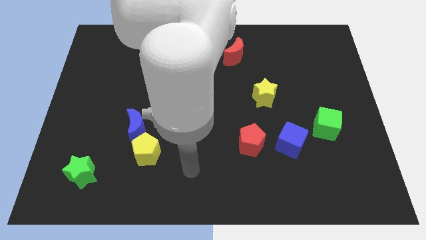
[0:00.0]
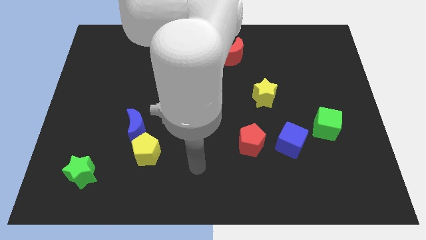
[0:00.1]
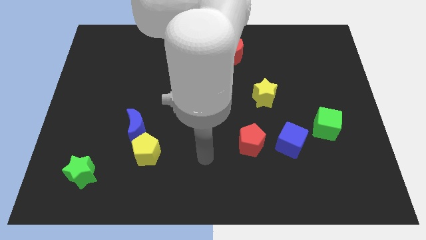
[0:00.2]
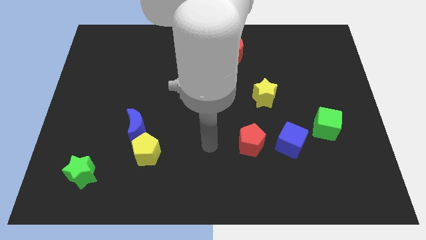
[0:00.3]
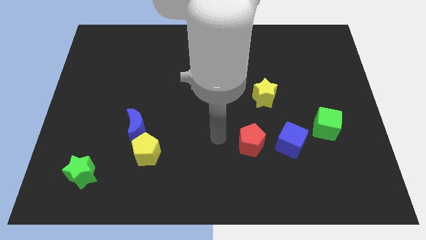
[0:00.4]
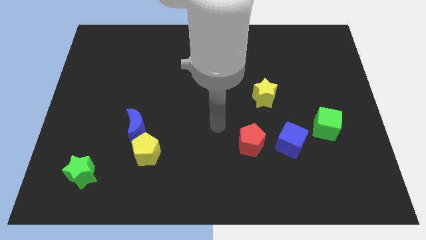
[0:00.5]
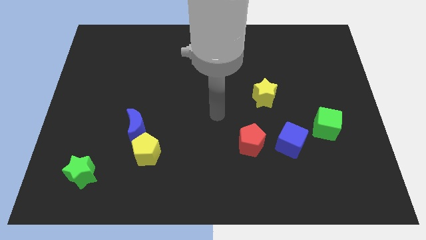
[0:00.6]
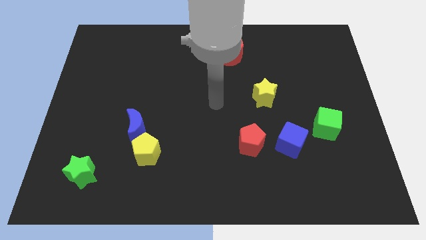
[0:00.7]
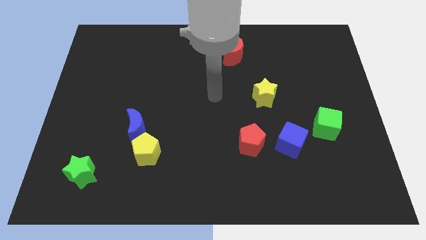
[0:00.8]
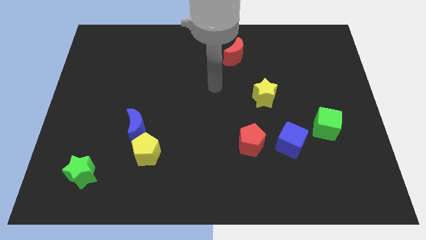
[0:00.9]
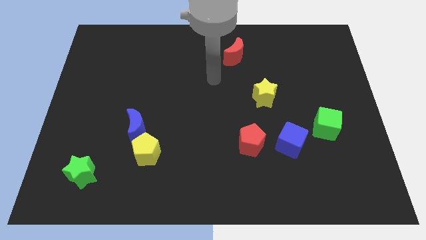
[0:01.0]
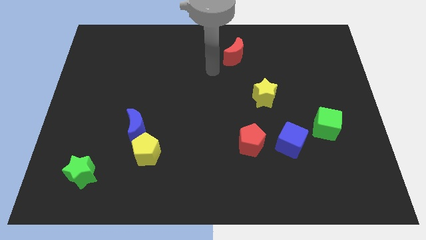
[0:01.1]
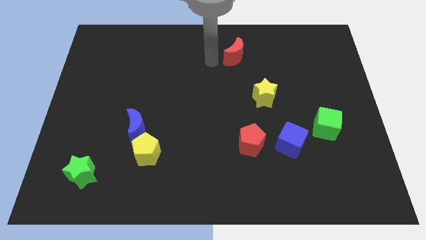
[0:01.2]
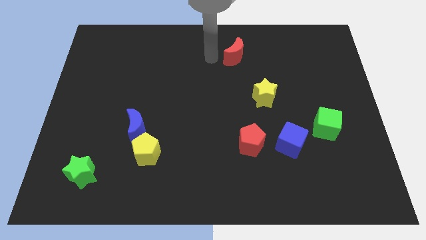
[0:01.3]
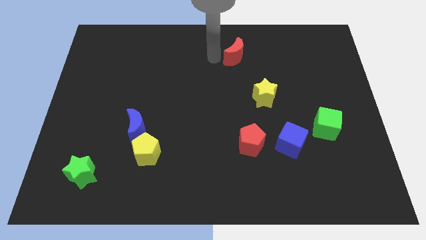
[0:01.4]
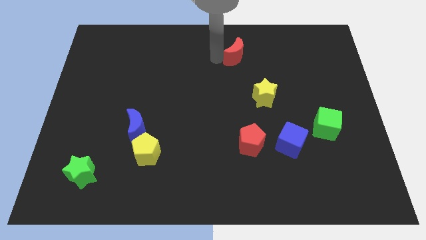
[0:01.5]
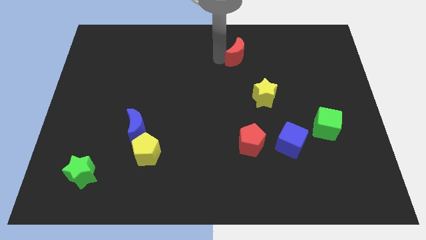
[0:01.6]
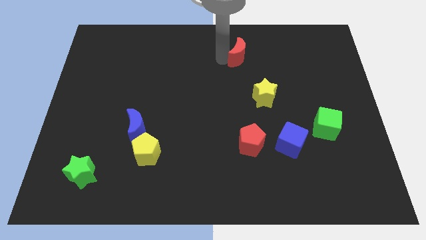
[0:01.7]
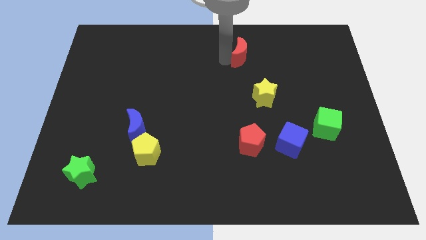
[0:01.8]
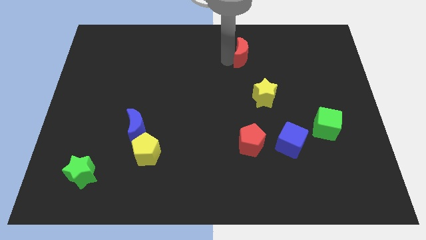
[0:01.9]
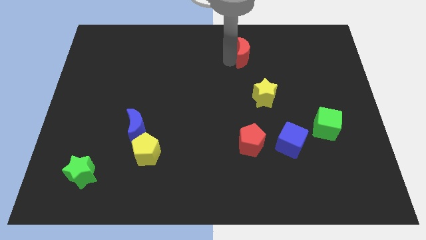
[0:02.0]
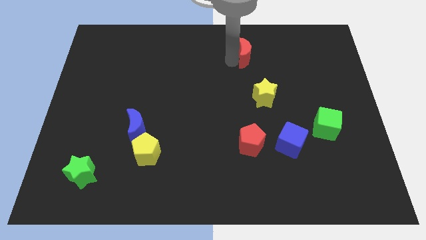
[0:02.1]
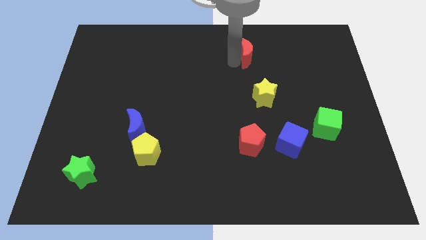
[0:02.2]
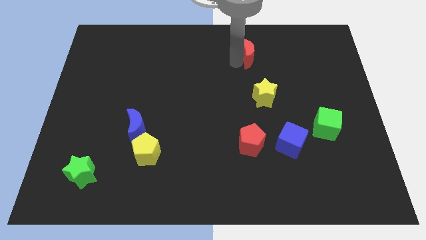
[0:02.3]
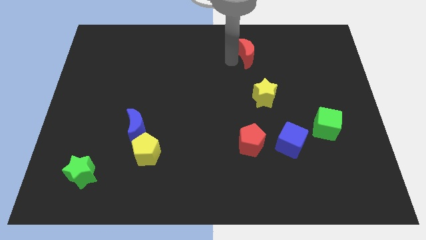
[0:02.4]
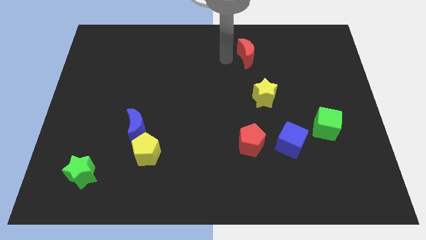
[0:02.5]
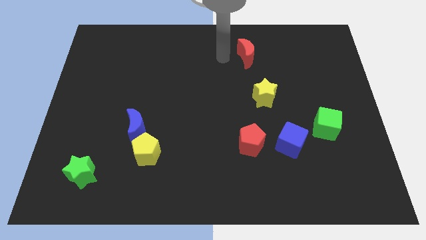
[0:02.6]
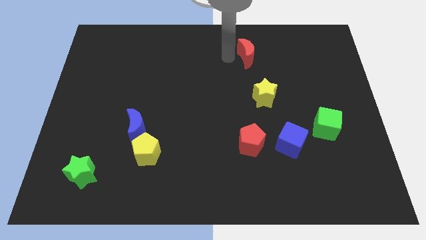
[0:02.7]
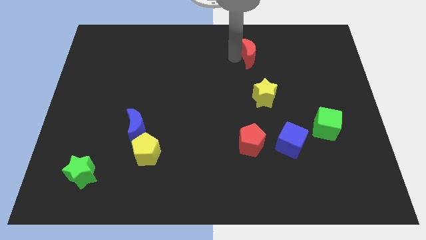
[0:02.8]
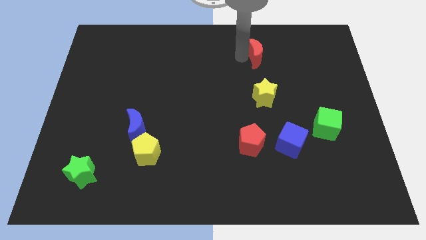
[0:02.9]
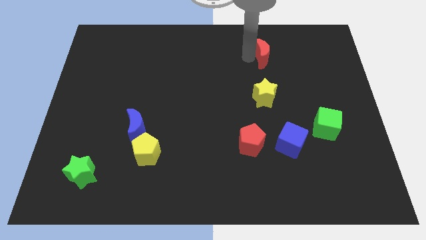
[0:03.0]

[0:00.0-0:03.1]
push the red moon to the right a little

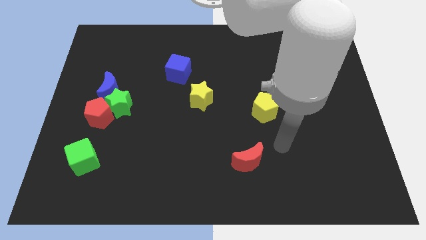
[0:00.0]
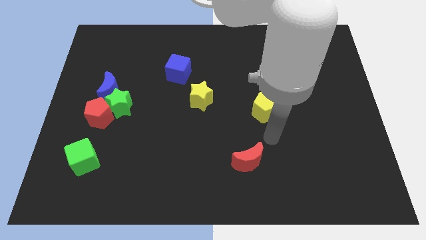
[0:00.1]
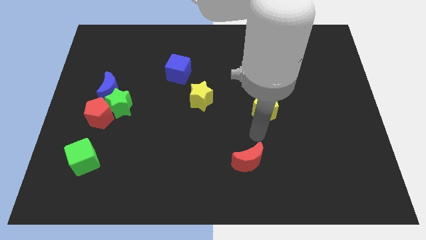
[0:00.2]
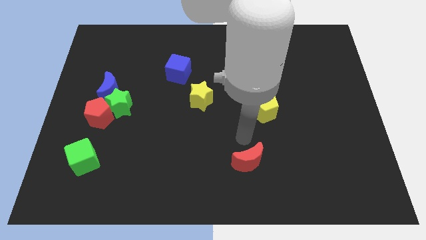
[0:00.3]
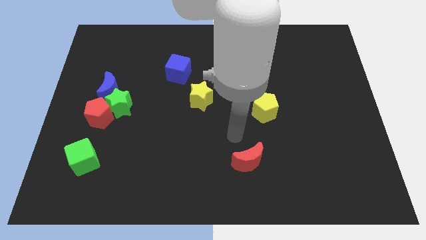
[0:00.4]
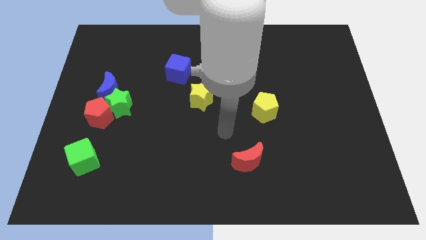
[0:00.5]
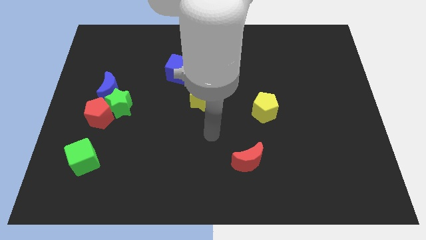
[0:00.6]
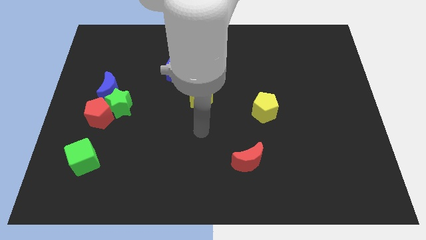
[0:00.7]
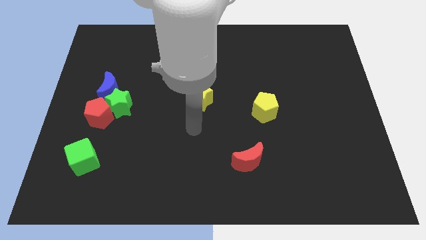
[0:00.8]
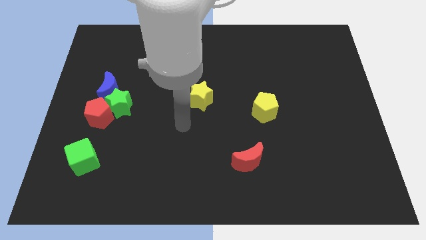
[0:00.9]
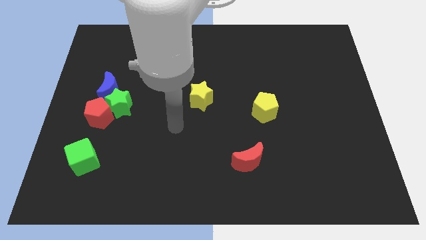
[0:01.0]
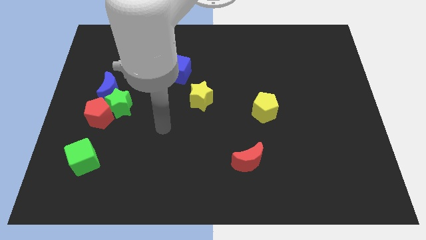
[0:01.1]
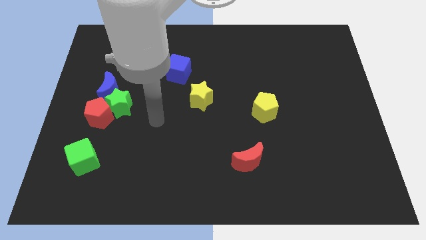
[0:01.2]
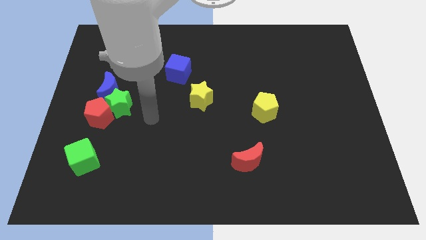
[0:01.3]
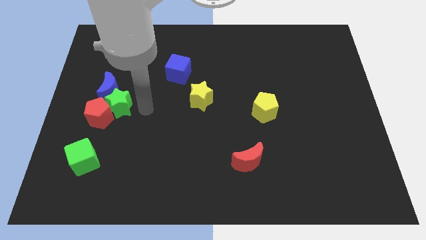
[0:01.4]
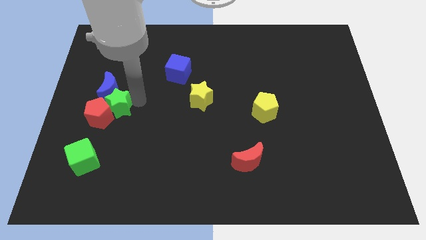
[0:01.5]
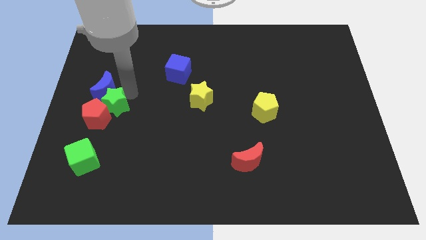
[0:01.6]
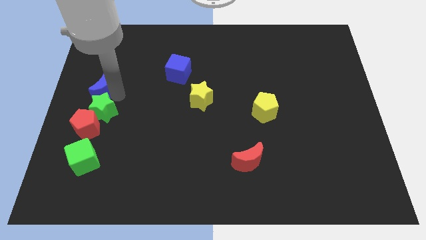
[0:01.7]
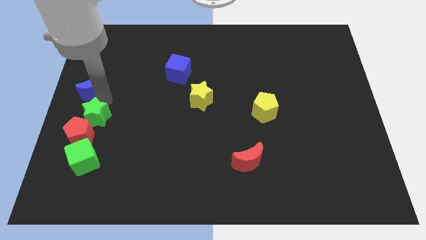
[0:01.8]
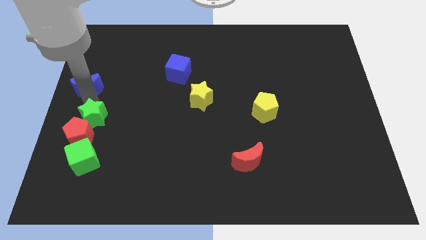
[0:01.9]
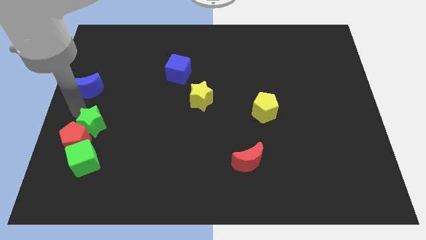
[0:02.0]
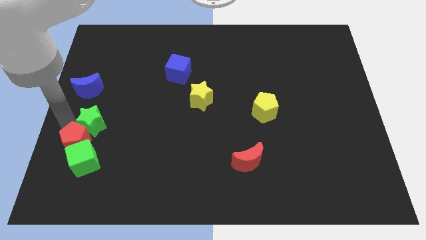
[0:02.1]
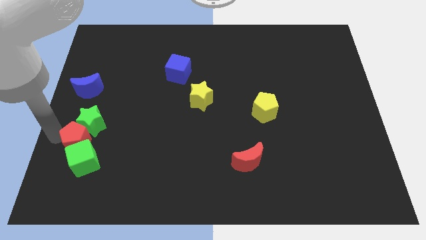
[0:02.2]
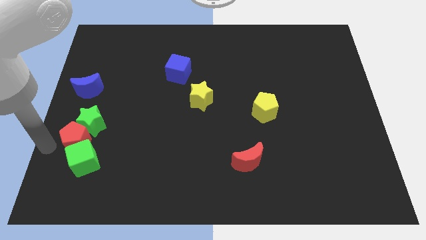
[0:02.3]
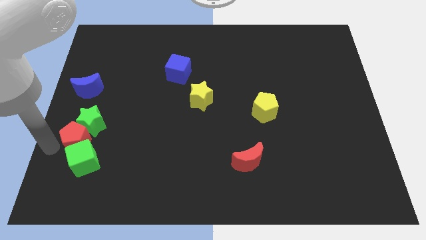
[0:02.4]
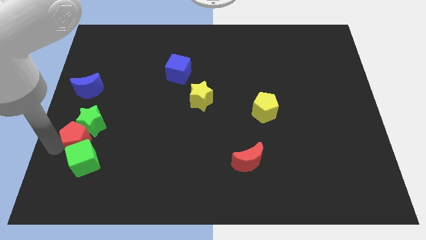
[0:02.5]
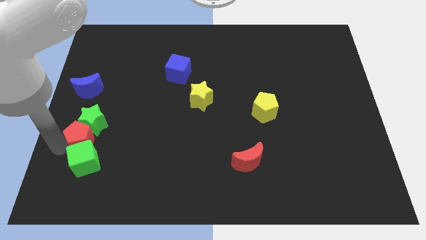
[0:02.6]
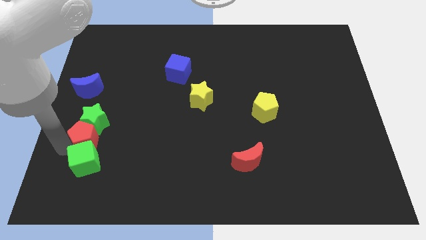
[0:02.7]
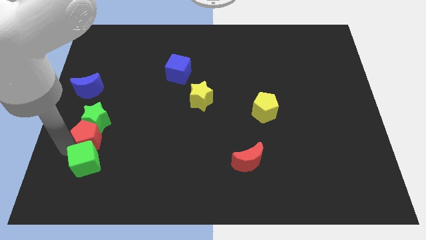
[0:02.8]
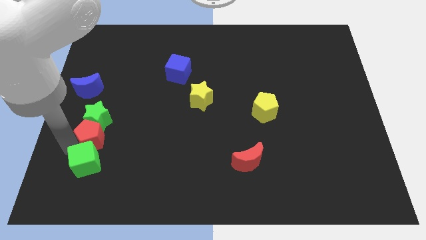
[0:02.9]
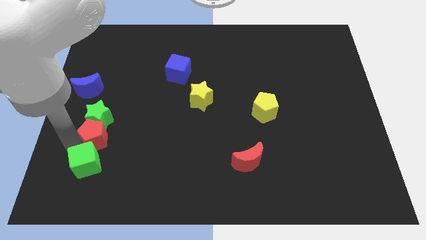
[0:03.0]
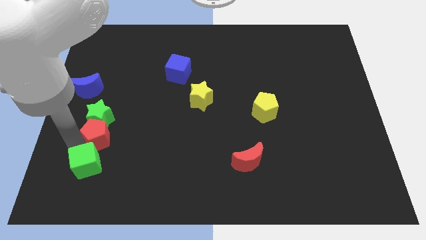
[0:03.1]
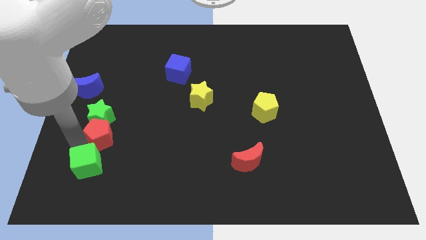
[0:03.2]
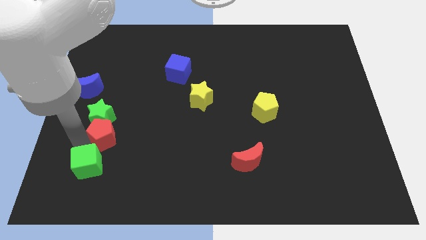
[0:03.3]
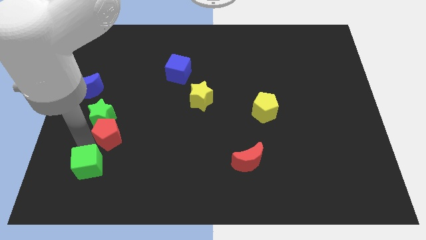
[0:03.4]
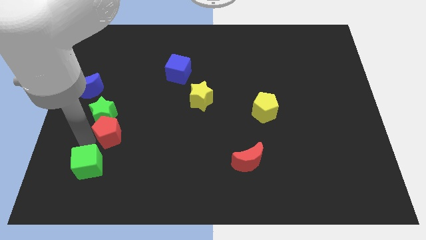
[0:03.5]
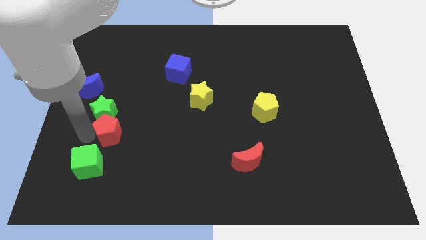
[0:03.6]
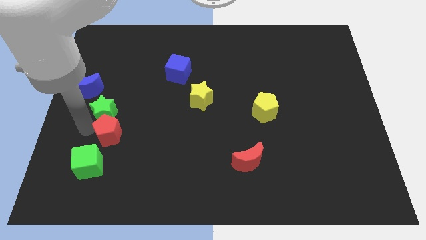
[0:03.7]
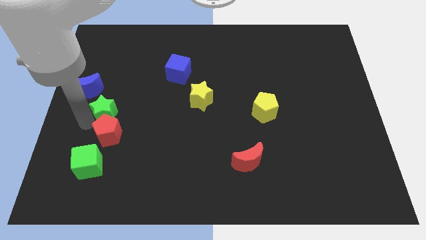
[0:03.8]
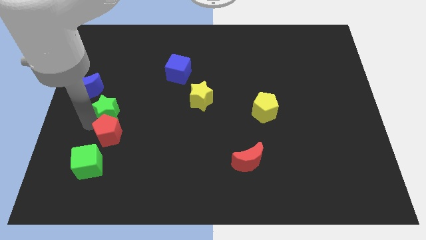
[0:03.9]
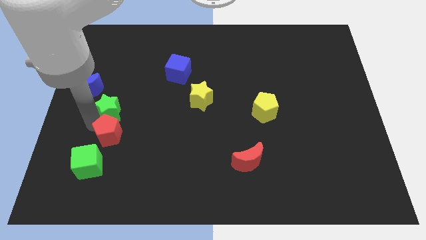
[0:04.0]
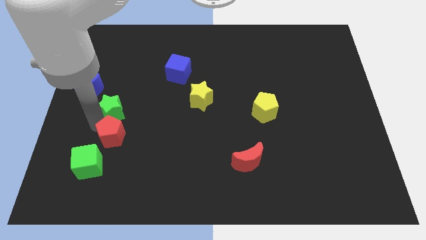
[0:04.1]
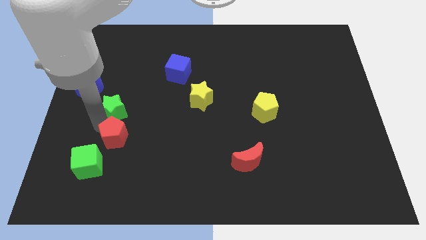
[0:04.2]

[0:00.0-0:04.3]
push the red pentagon down and to the right a bit

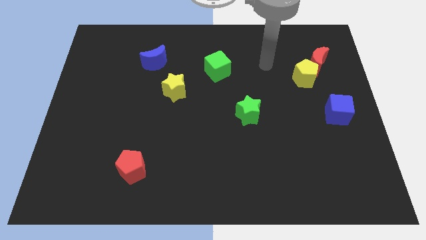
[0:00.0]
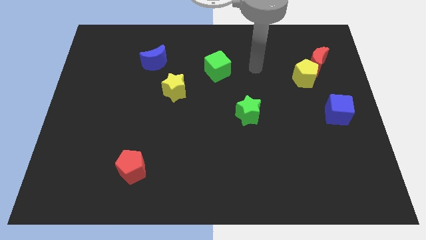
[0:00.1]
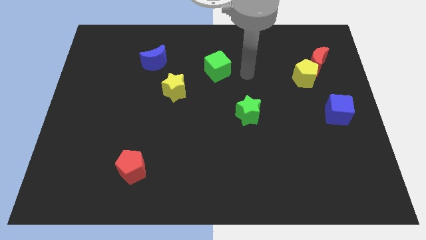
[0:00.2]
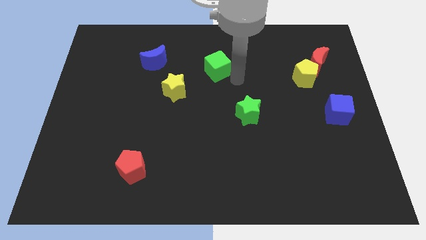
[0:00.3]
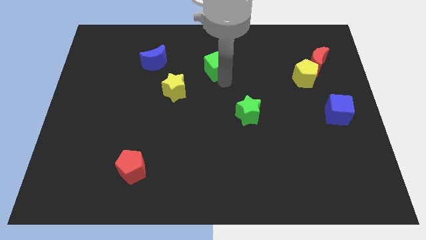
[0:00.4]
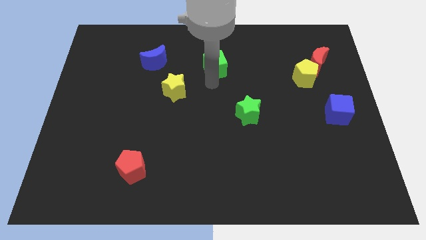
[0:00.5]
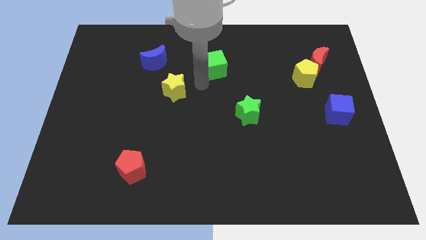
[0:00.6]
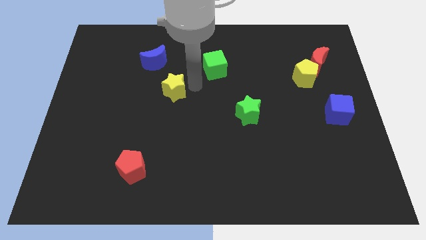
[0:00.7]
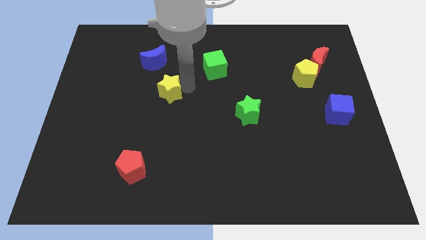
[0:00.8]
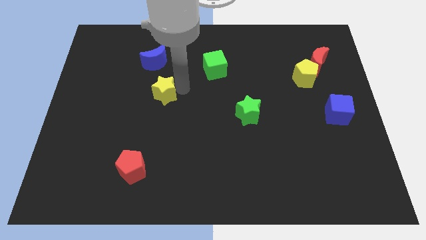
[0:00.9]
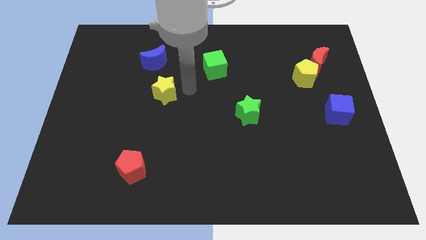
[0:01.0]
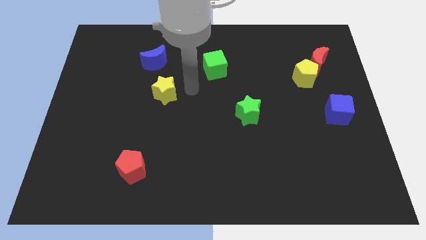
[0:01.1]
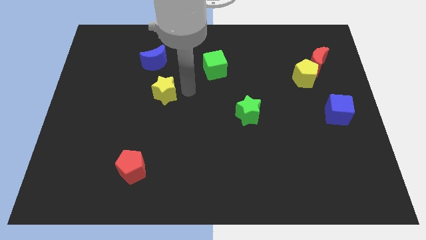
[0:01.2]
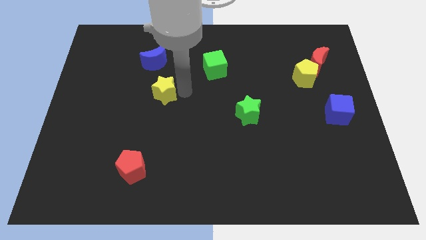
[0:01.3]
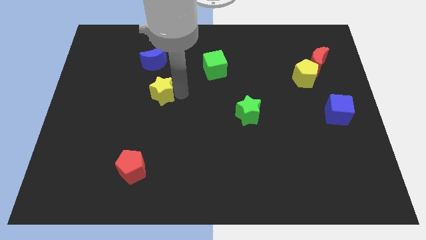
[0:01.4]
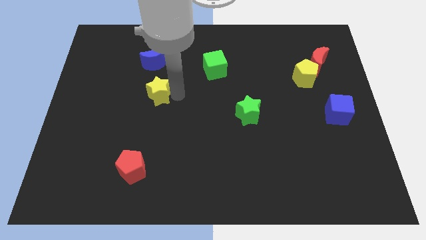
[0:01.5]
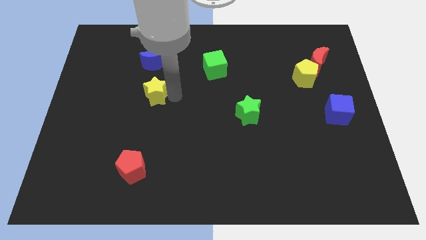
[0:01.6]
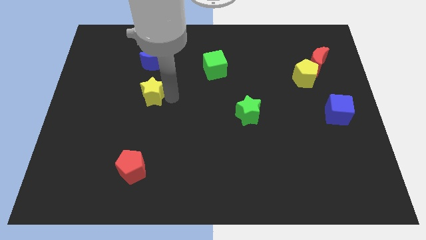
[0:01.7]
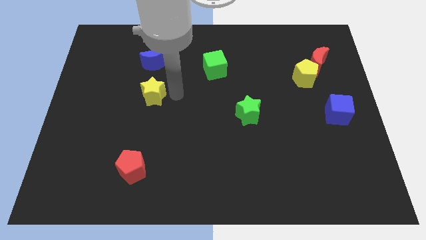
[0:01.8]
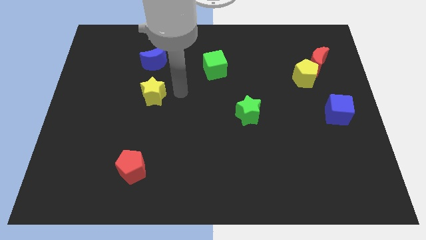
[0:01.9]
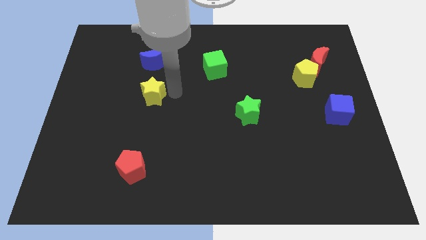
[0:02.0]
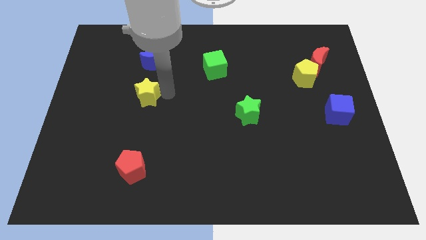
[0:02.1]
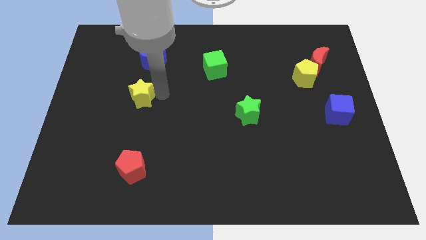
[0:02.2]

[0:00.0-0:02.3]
move the yellow star to the left a little
